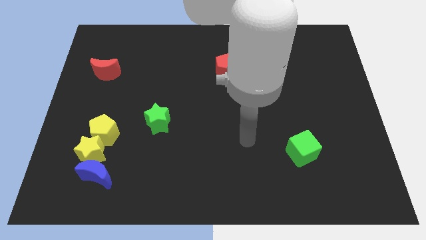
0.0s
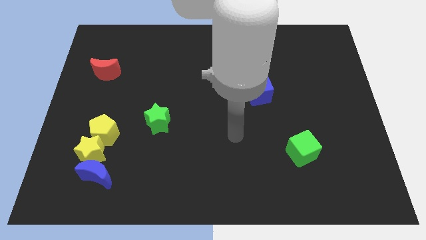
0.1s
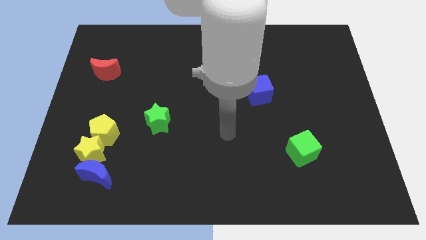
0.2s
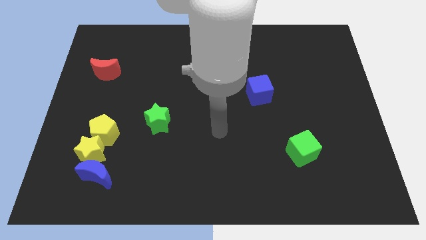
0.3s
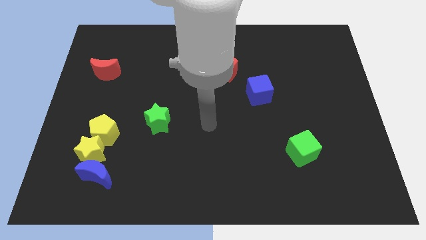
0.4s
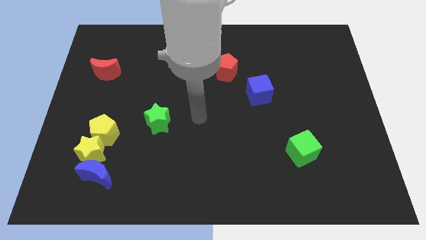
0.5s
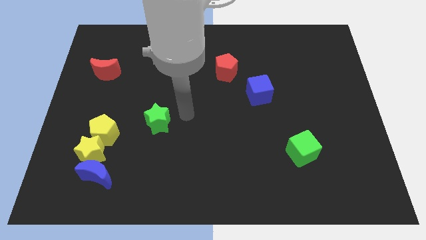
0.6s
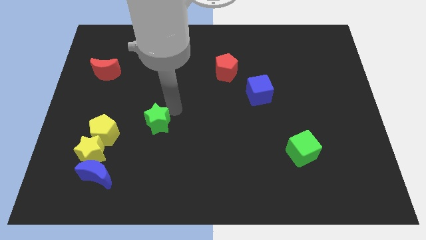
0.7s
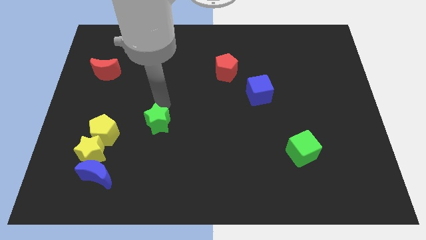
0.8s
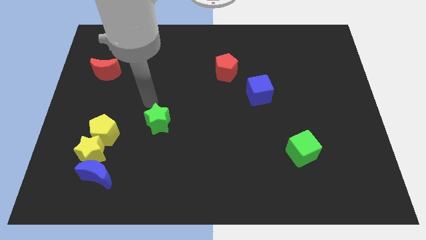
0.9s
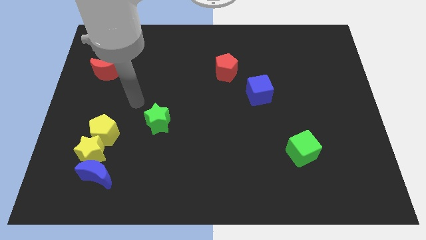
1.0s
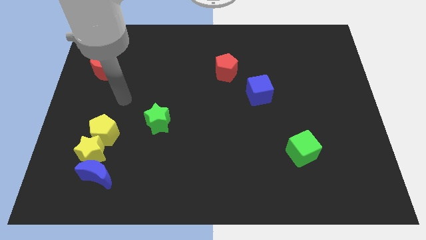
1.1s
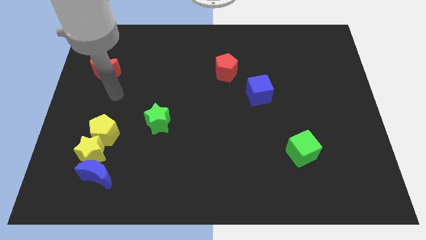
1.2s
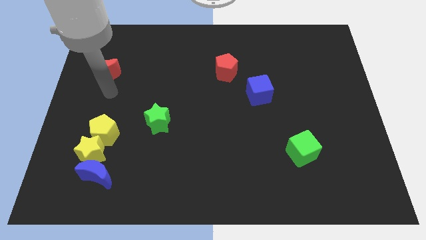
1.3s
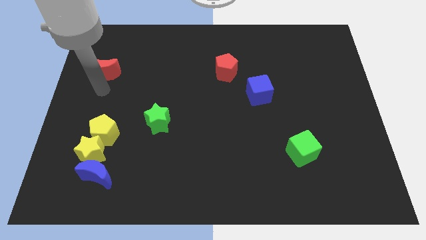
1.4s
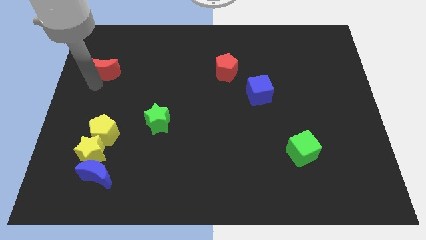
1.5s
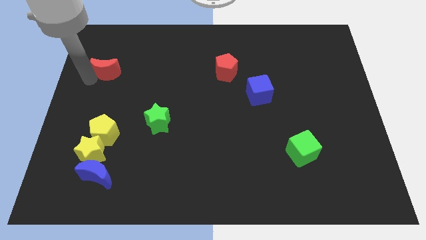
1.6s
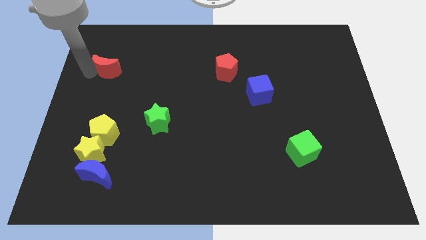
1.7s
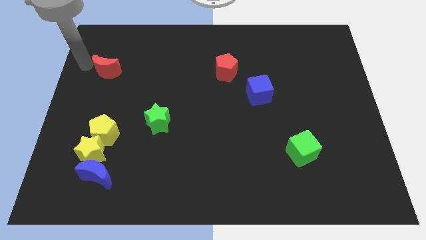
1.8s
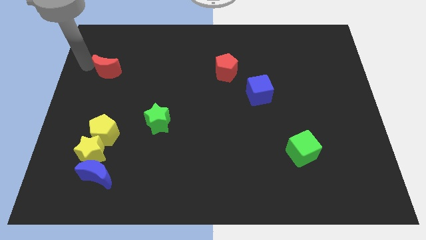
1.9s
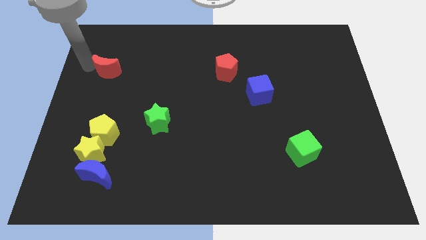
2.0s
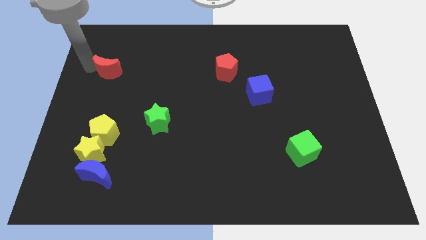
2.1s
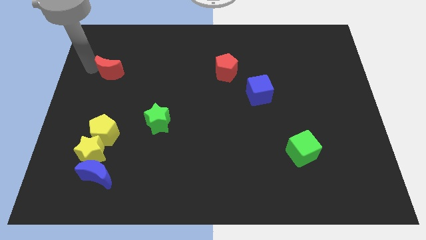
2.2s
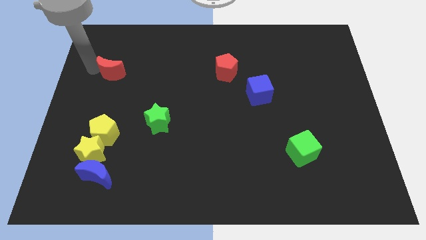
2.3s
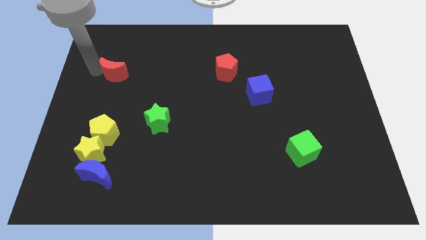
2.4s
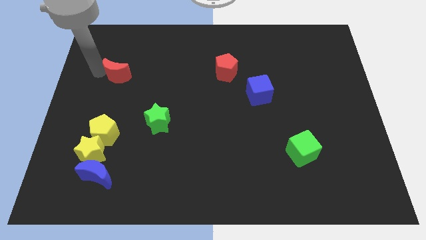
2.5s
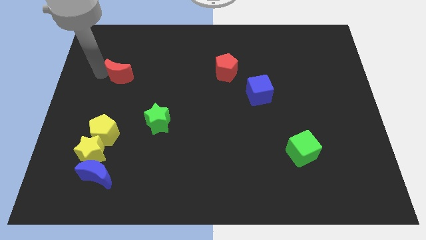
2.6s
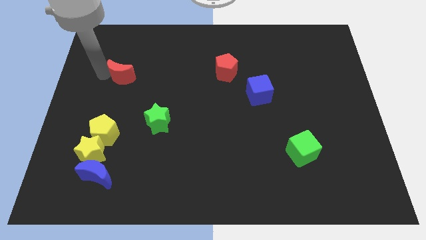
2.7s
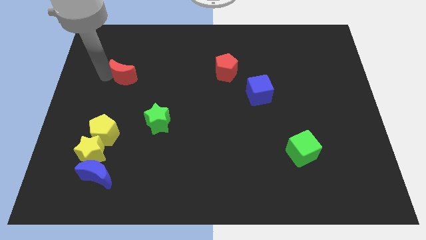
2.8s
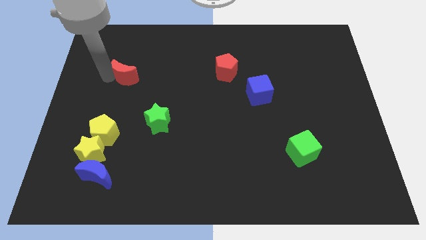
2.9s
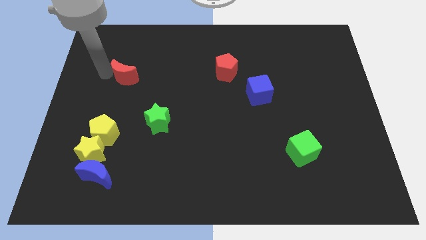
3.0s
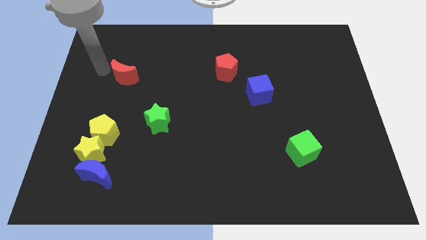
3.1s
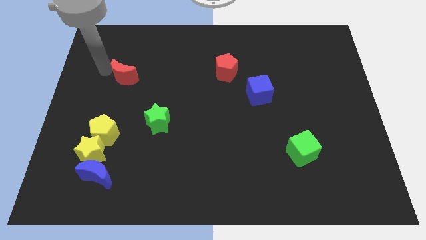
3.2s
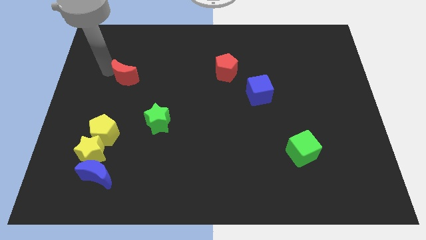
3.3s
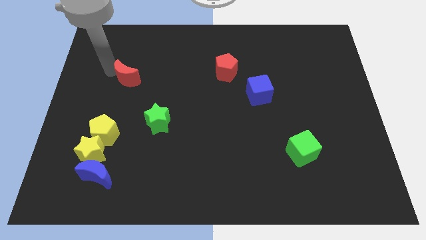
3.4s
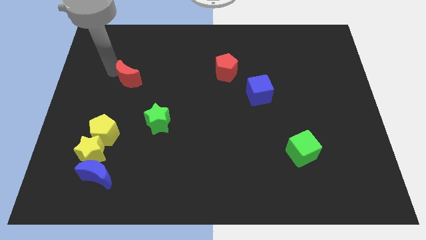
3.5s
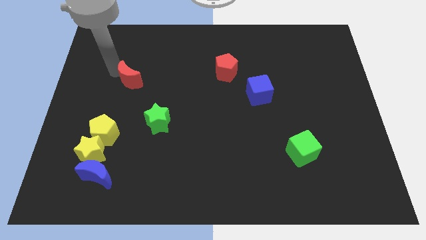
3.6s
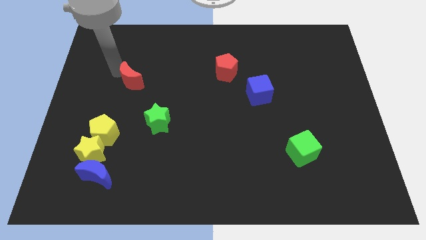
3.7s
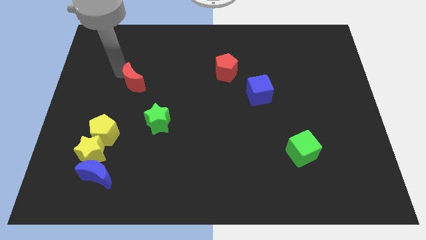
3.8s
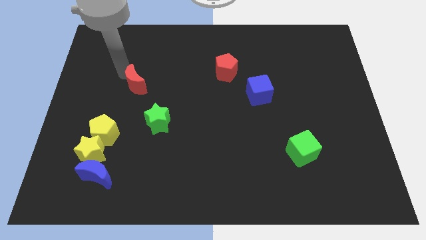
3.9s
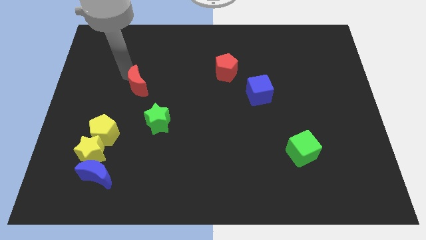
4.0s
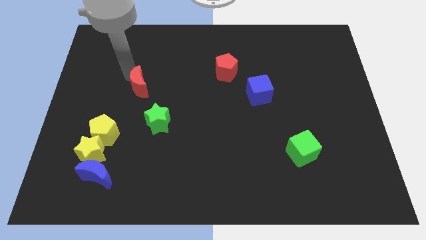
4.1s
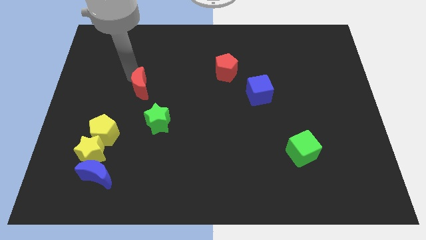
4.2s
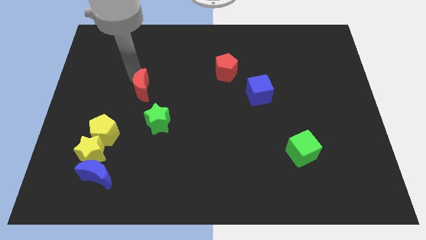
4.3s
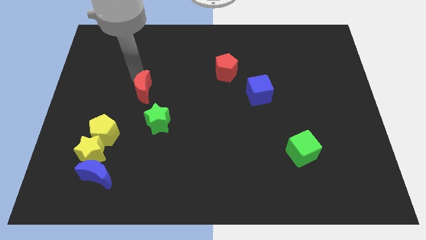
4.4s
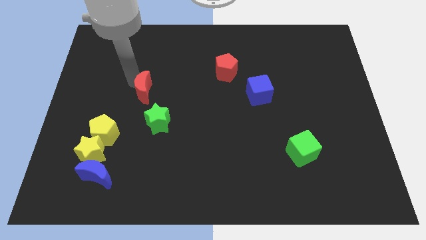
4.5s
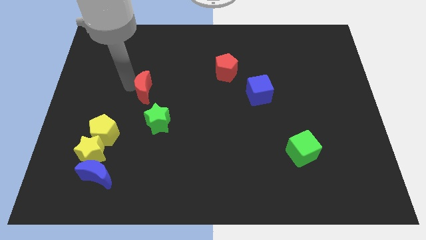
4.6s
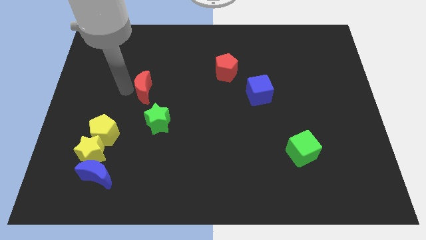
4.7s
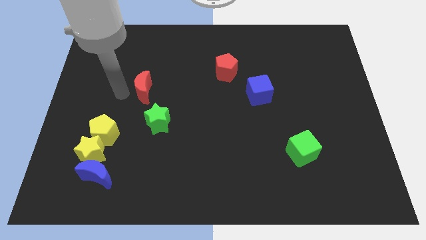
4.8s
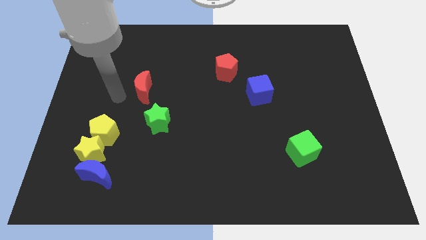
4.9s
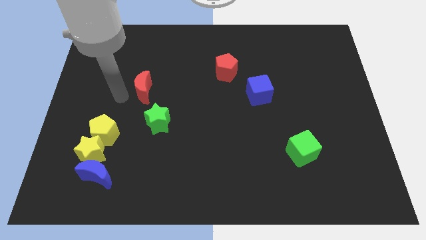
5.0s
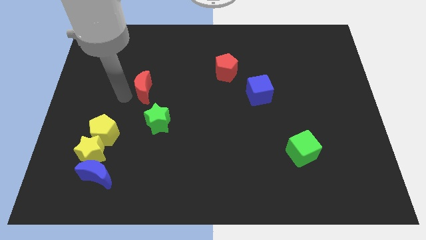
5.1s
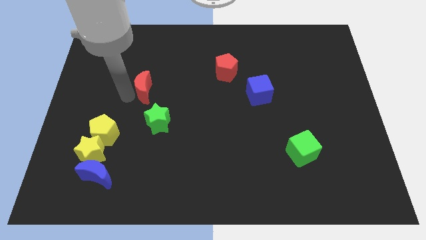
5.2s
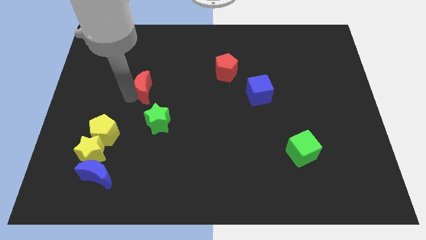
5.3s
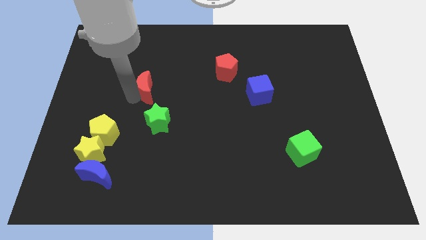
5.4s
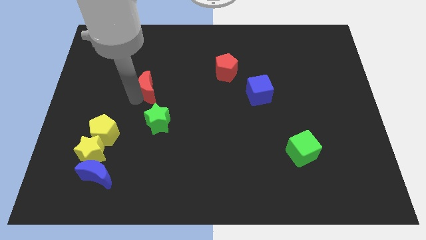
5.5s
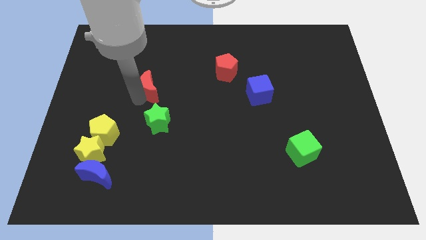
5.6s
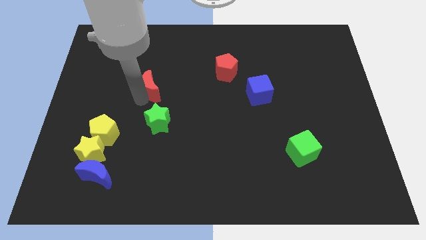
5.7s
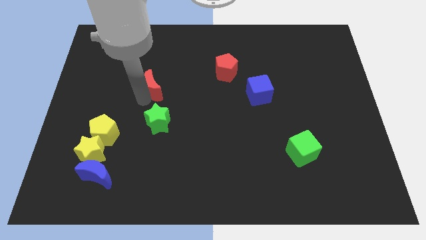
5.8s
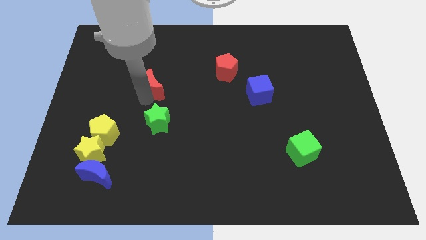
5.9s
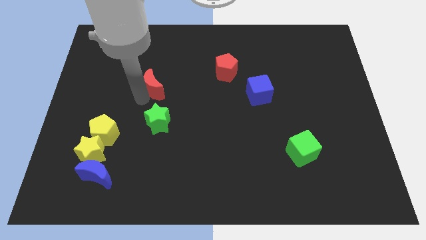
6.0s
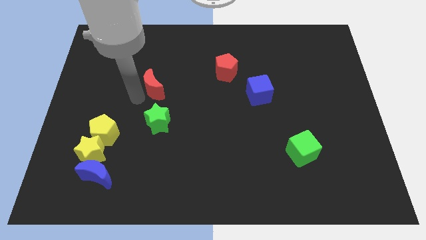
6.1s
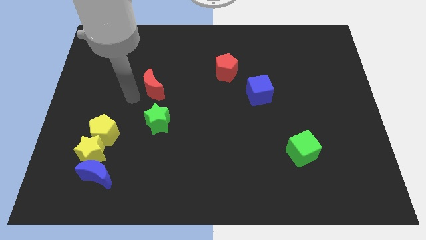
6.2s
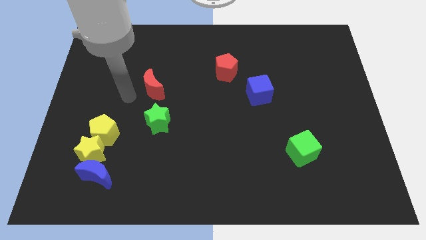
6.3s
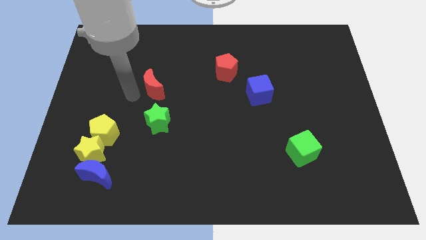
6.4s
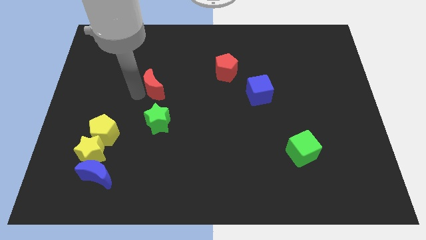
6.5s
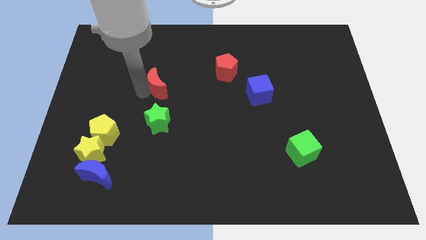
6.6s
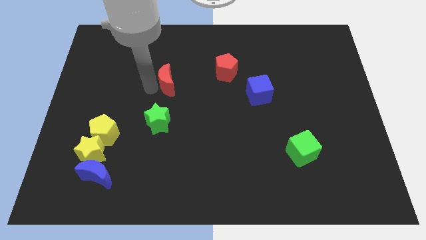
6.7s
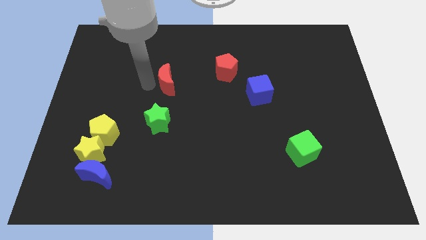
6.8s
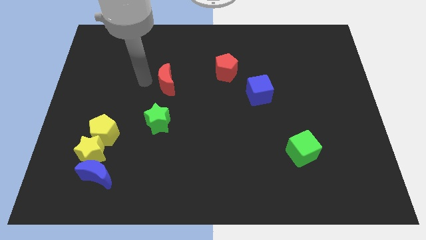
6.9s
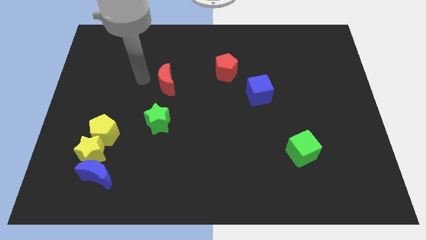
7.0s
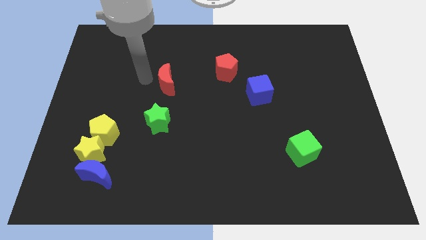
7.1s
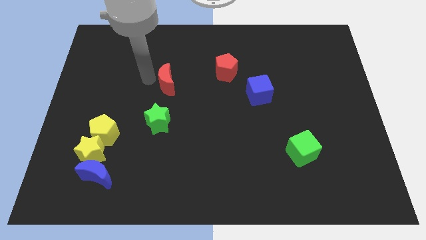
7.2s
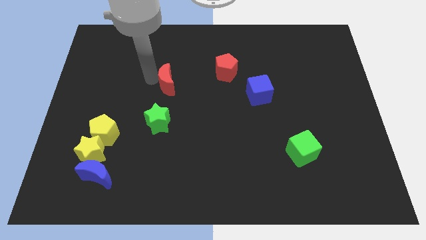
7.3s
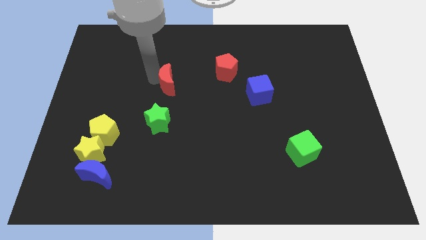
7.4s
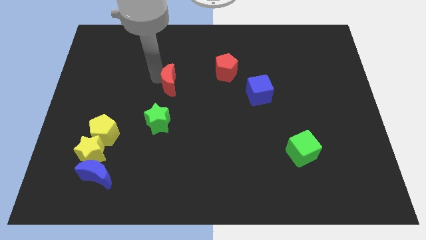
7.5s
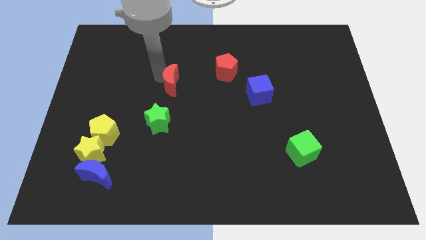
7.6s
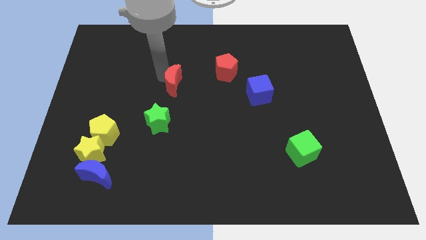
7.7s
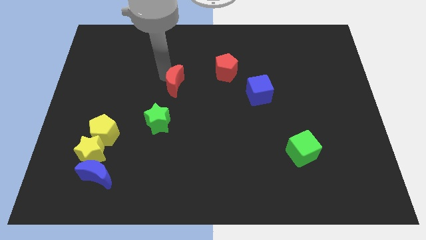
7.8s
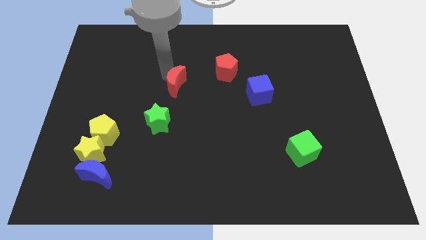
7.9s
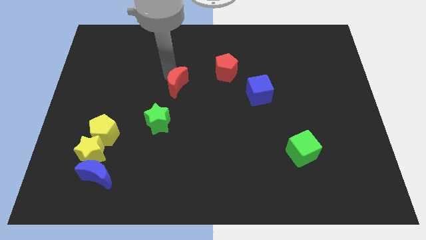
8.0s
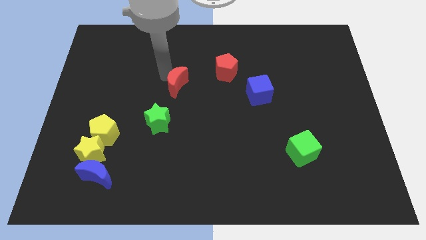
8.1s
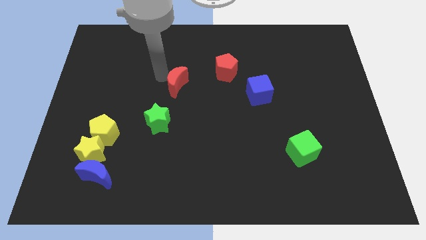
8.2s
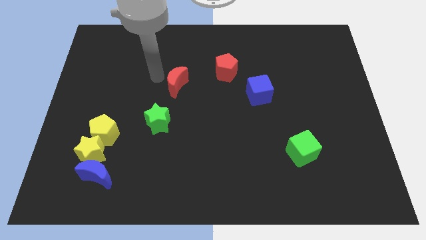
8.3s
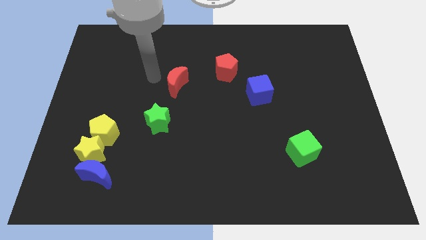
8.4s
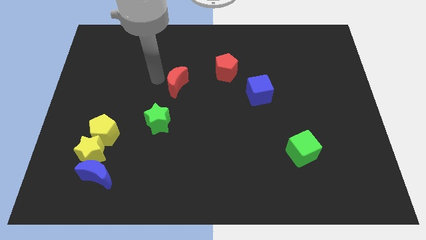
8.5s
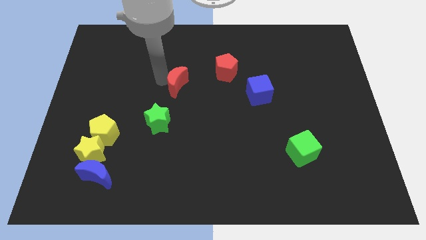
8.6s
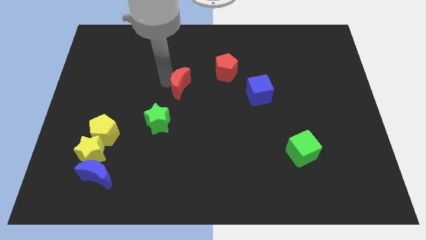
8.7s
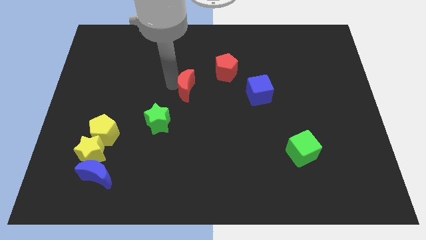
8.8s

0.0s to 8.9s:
push the red moon diagonally down and to the left of the red pentagon
